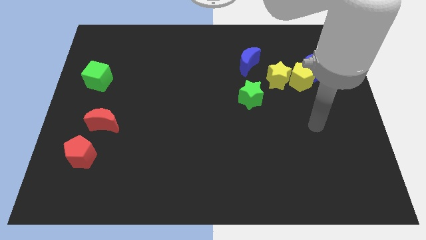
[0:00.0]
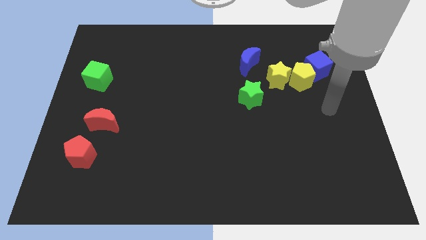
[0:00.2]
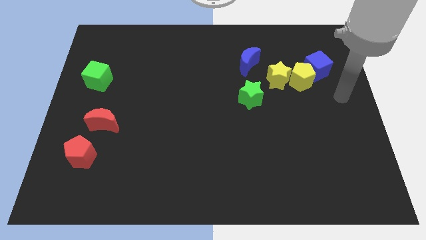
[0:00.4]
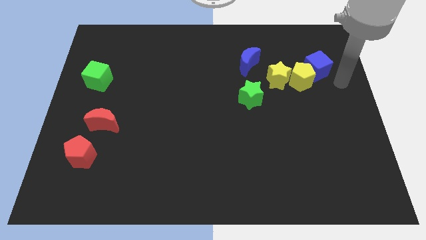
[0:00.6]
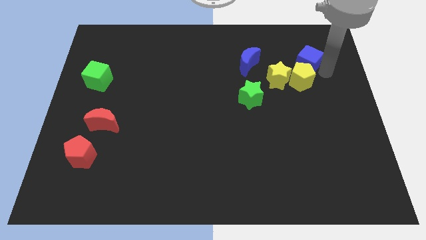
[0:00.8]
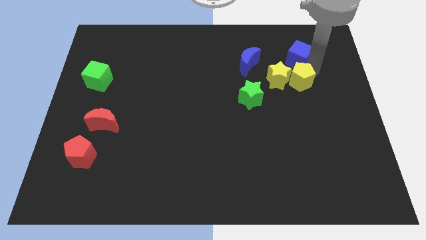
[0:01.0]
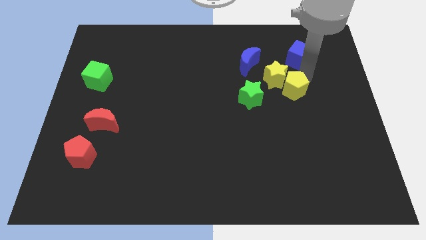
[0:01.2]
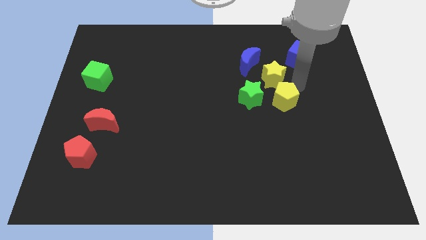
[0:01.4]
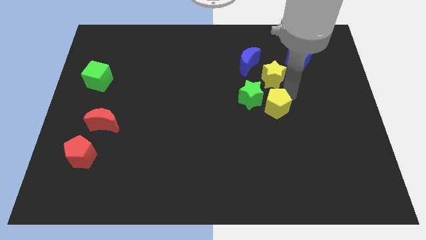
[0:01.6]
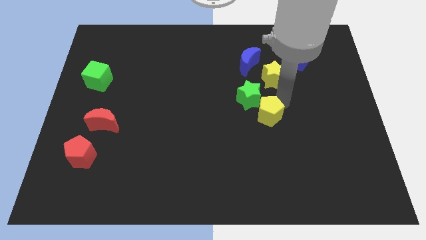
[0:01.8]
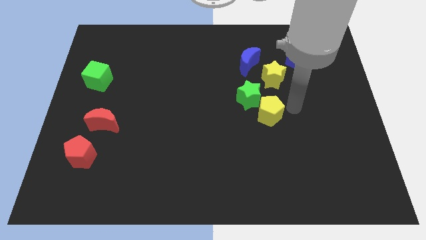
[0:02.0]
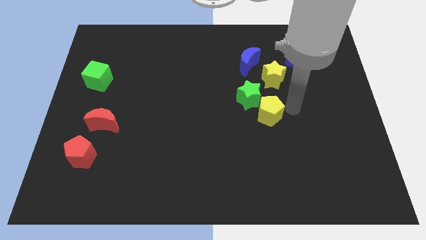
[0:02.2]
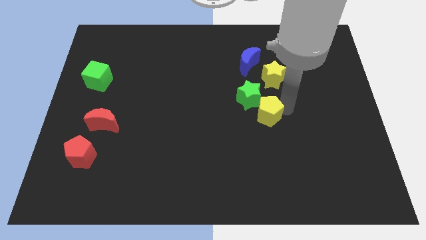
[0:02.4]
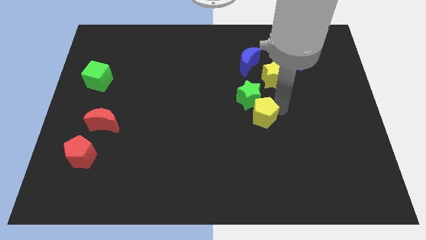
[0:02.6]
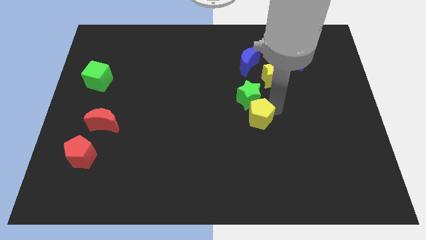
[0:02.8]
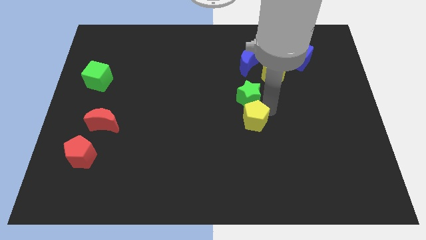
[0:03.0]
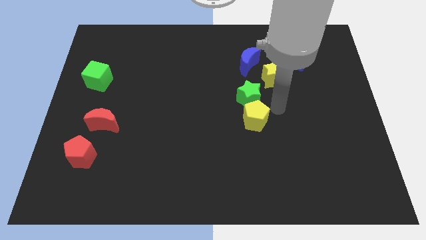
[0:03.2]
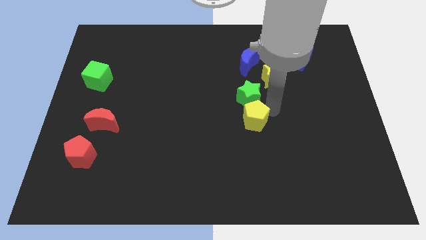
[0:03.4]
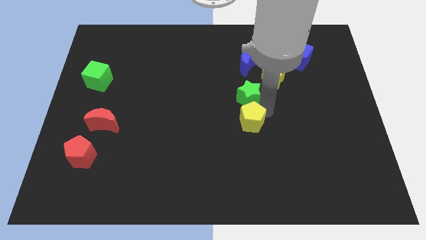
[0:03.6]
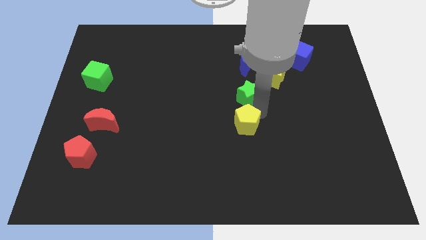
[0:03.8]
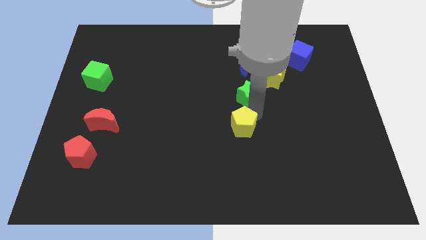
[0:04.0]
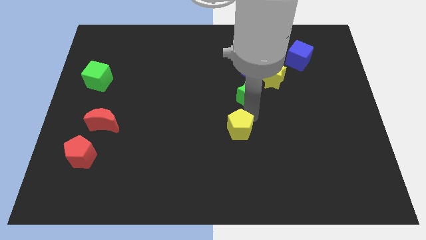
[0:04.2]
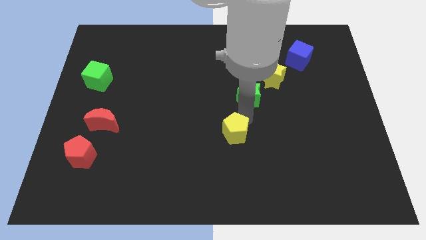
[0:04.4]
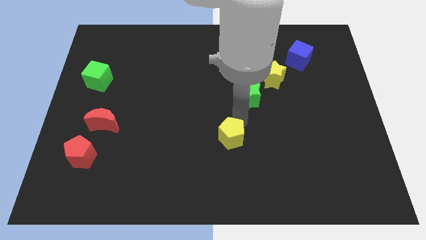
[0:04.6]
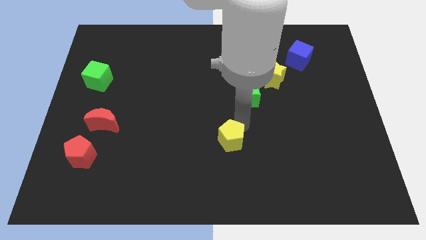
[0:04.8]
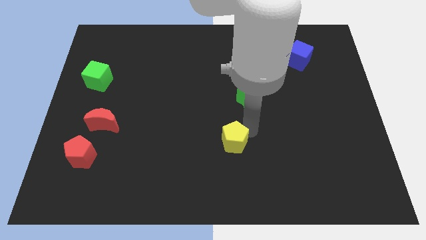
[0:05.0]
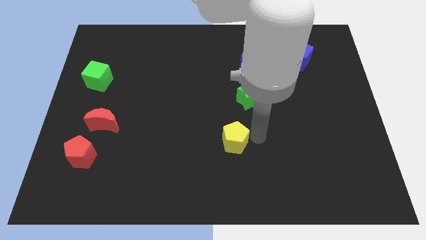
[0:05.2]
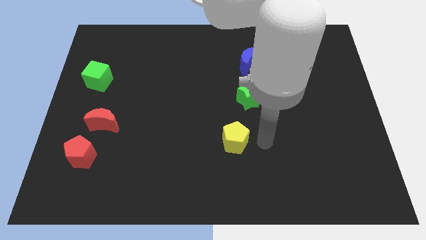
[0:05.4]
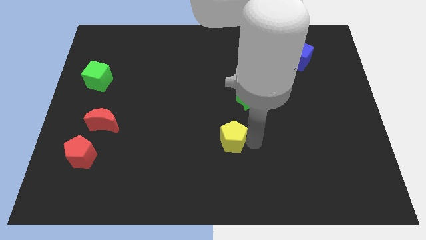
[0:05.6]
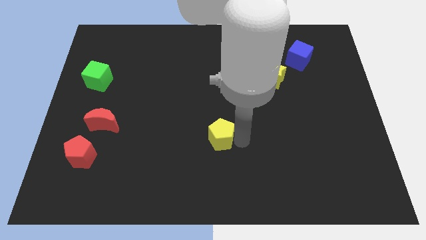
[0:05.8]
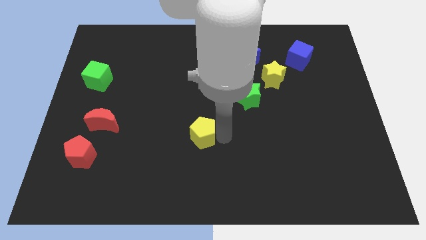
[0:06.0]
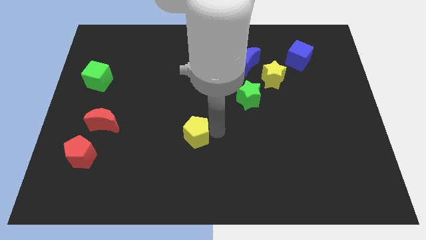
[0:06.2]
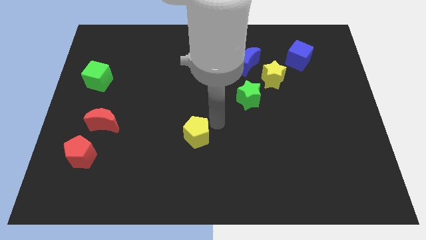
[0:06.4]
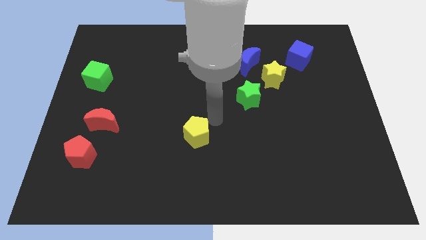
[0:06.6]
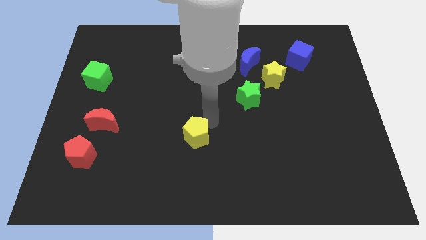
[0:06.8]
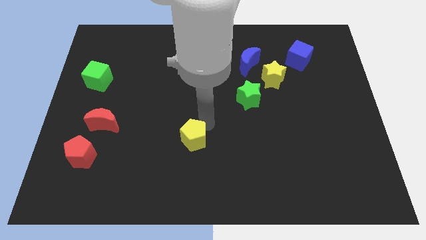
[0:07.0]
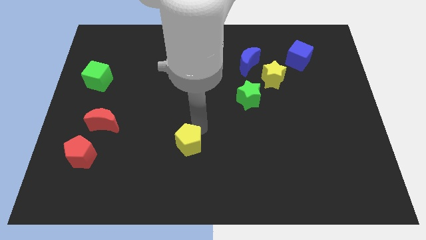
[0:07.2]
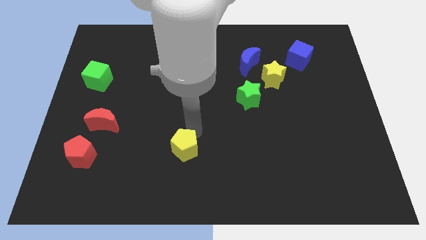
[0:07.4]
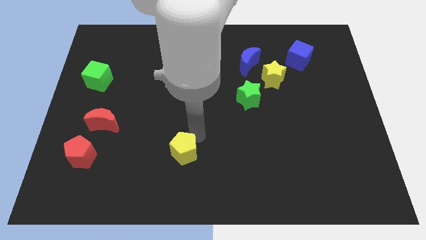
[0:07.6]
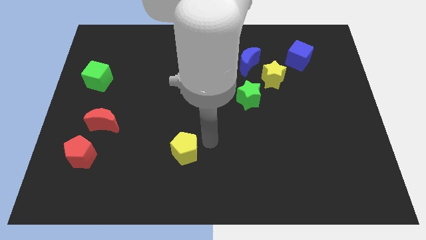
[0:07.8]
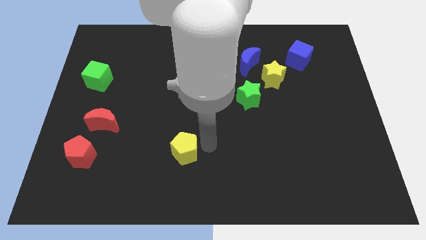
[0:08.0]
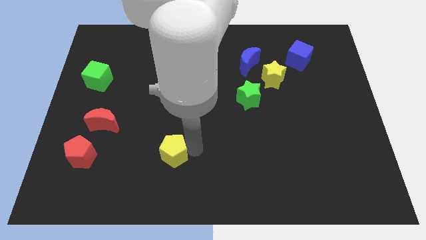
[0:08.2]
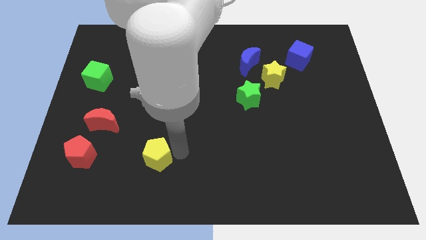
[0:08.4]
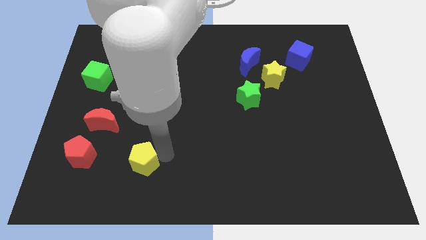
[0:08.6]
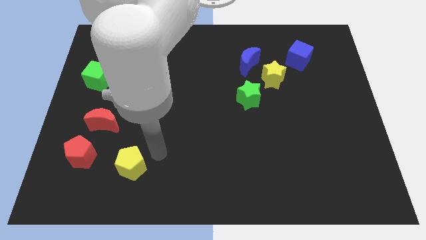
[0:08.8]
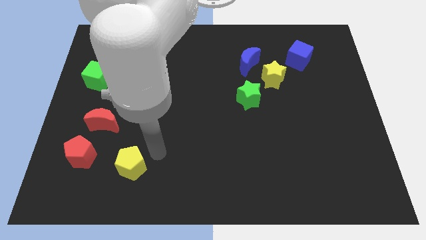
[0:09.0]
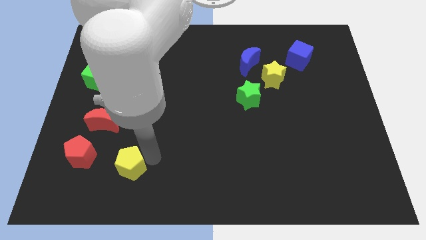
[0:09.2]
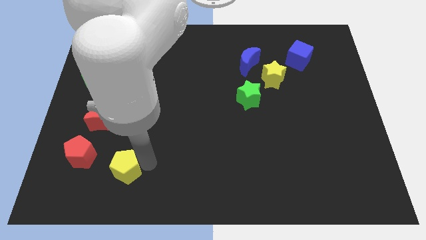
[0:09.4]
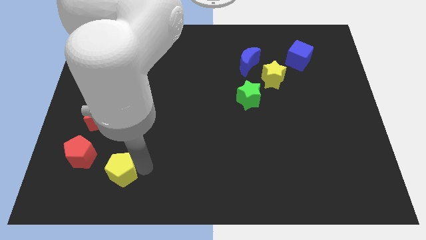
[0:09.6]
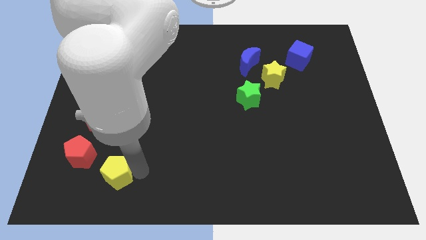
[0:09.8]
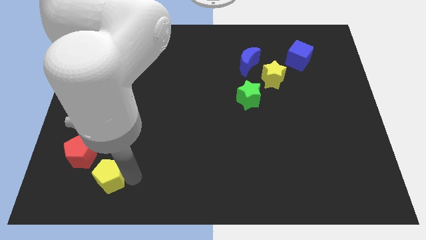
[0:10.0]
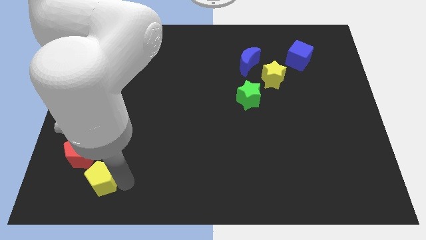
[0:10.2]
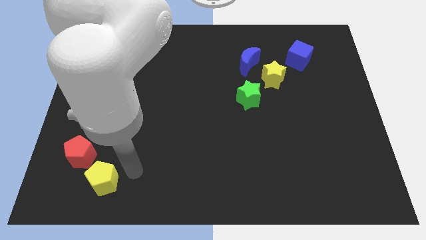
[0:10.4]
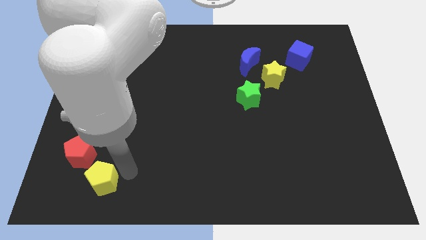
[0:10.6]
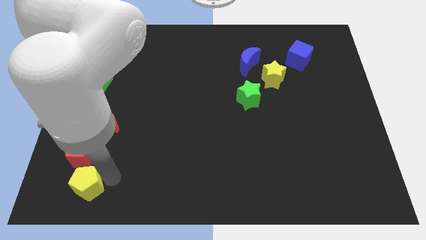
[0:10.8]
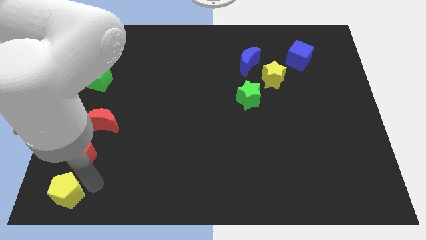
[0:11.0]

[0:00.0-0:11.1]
slide the yellow pentagon to the bottom left
